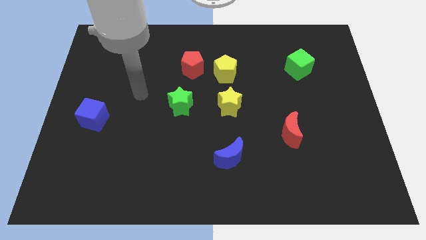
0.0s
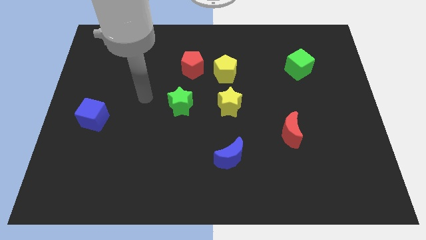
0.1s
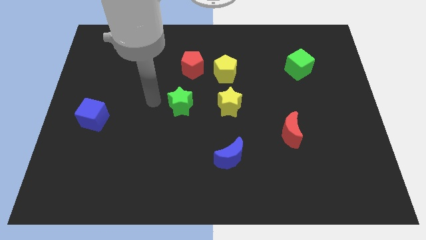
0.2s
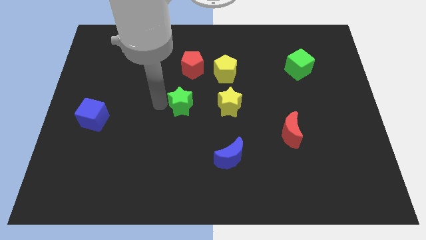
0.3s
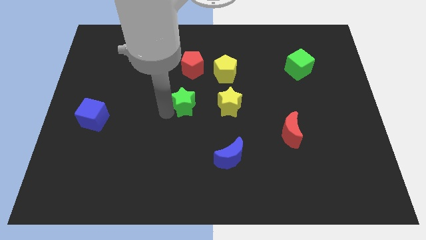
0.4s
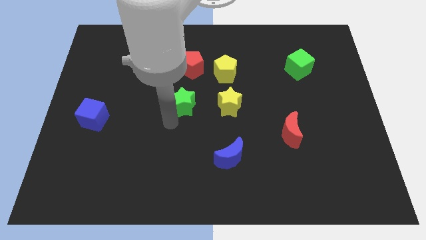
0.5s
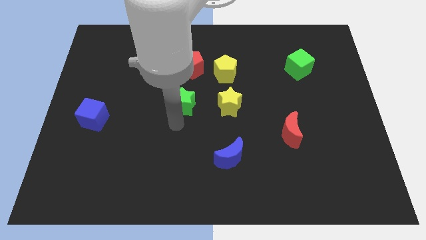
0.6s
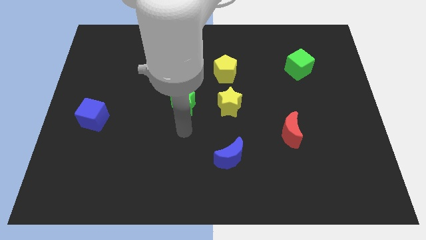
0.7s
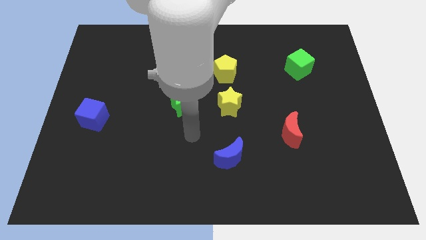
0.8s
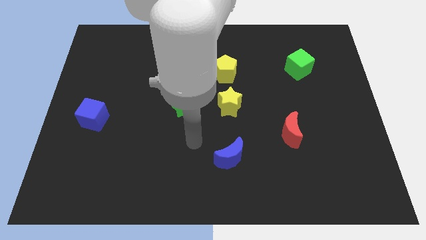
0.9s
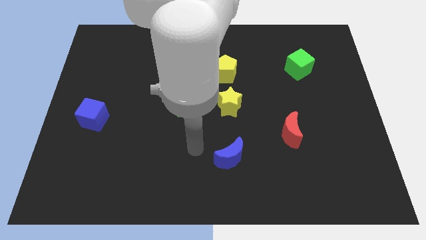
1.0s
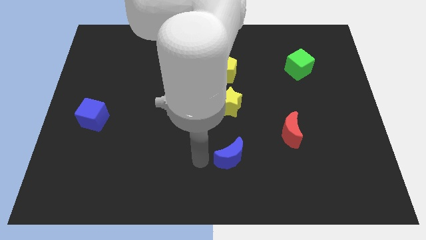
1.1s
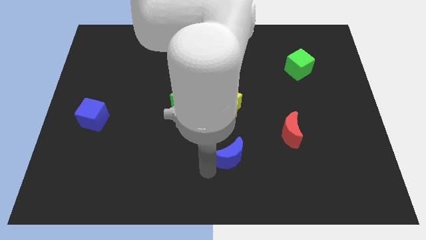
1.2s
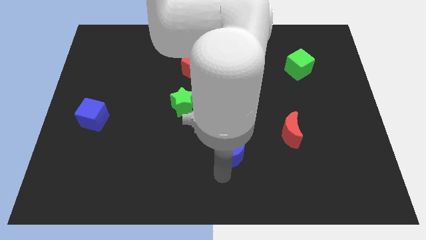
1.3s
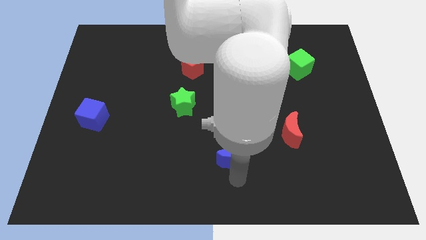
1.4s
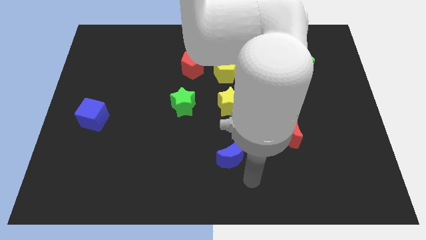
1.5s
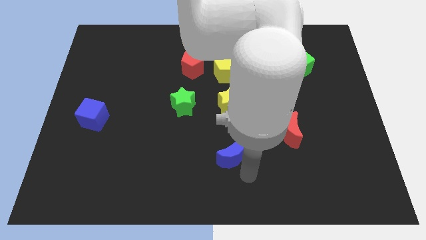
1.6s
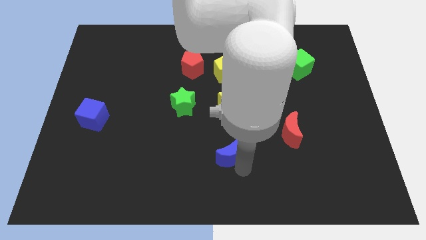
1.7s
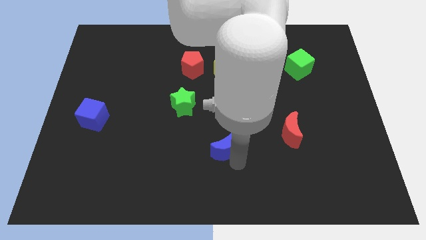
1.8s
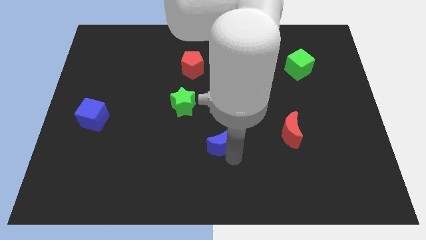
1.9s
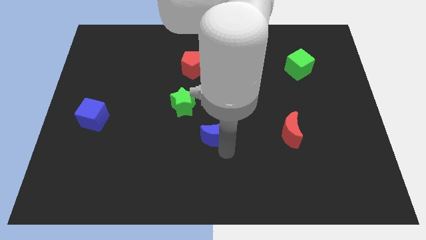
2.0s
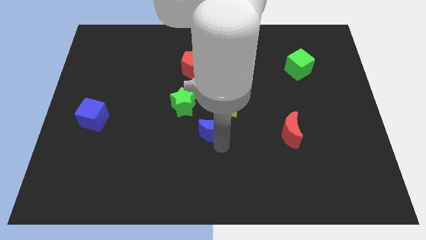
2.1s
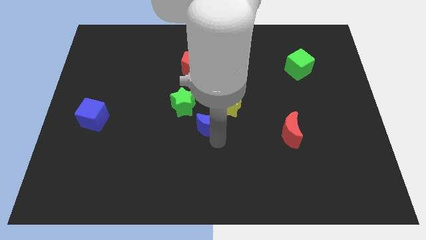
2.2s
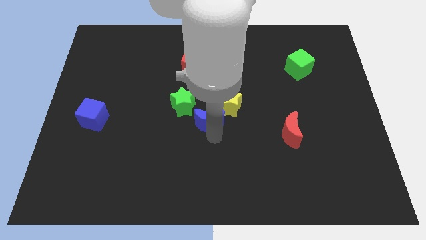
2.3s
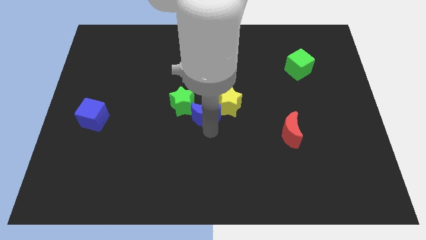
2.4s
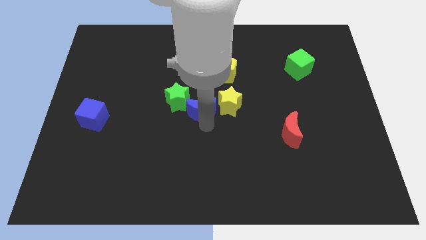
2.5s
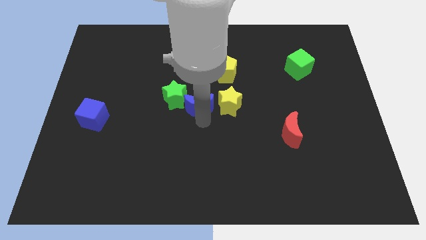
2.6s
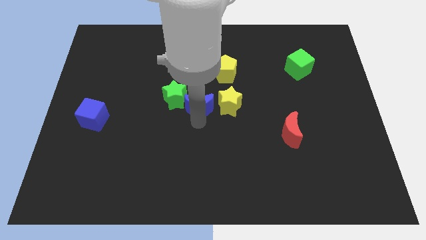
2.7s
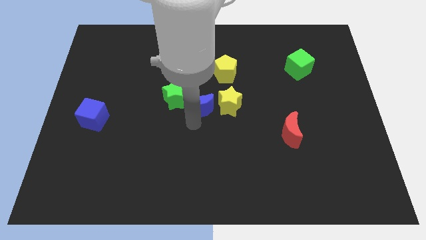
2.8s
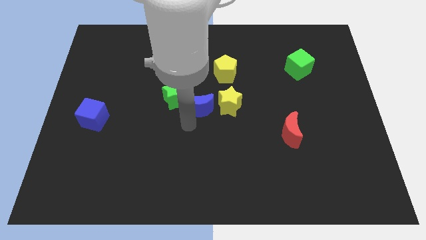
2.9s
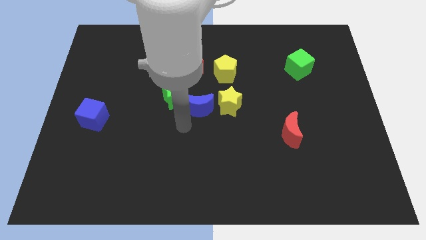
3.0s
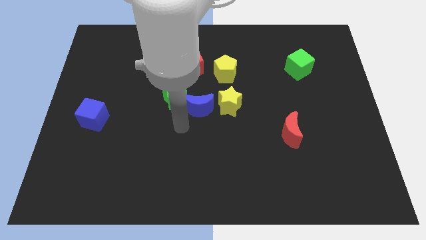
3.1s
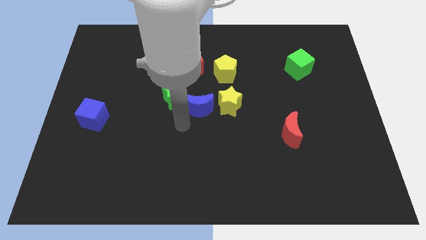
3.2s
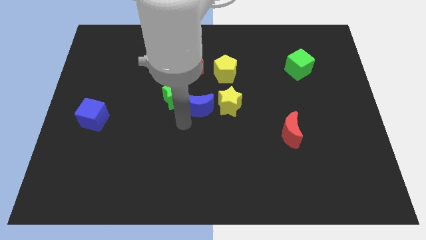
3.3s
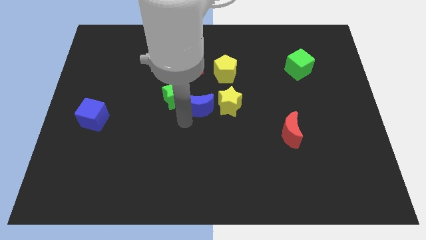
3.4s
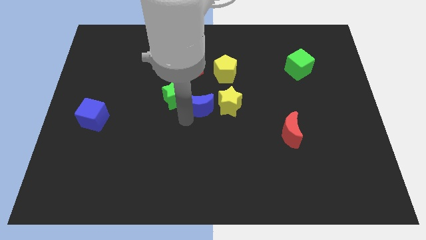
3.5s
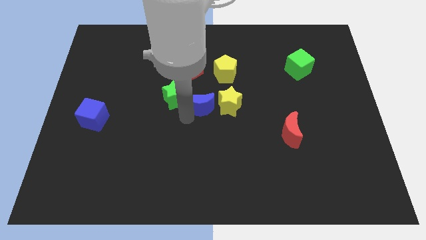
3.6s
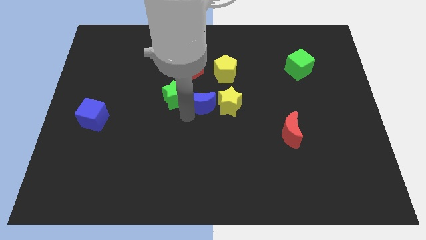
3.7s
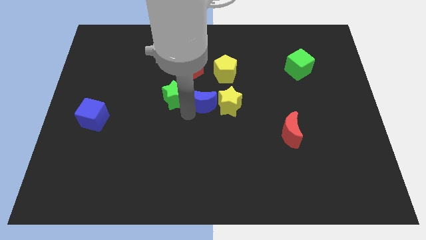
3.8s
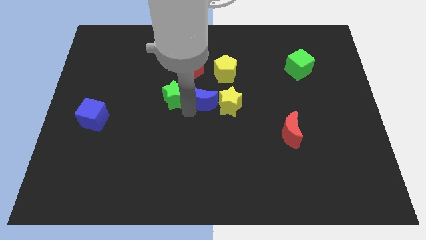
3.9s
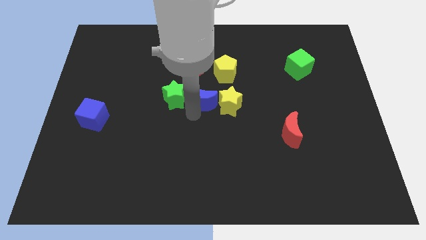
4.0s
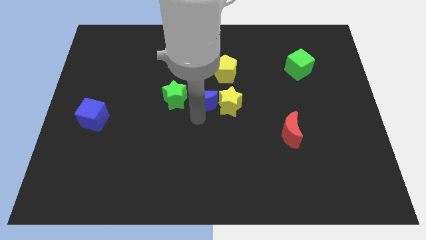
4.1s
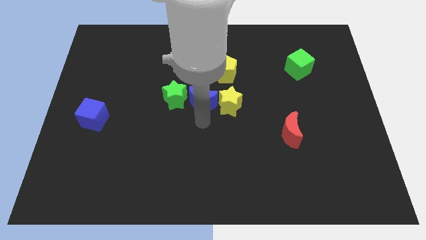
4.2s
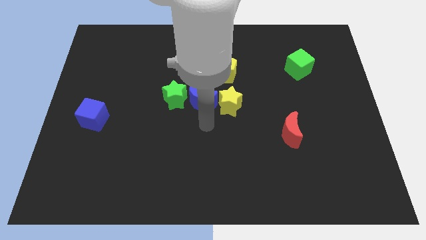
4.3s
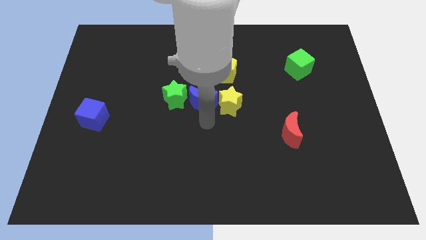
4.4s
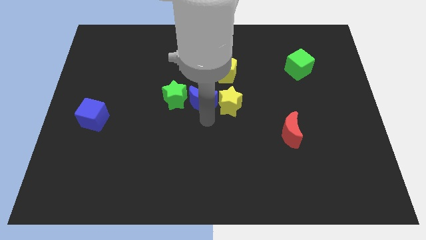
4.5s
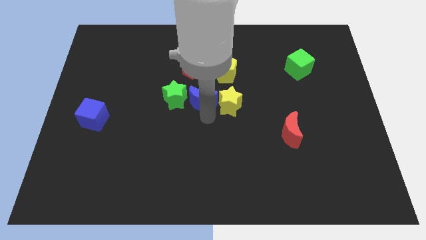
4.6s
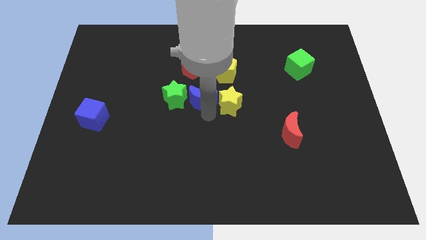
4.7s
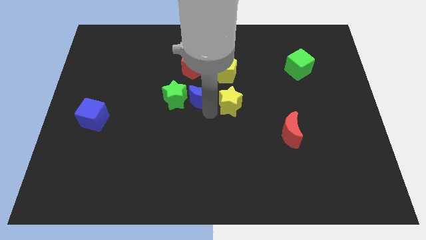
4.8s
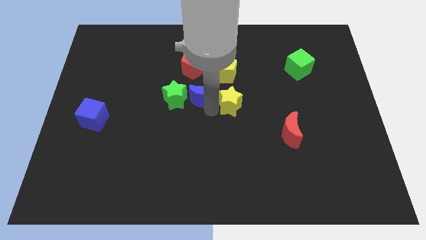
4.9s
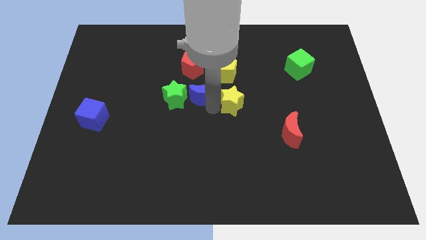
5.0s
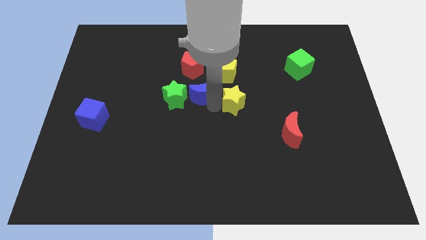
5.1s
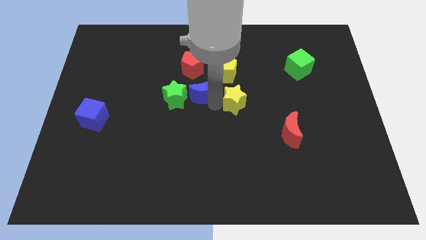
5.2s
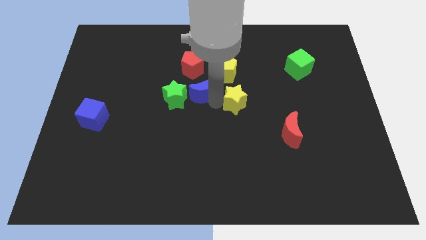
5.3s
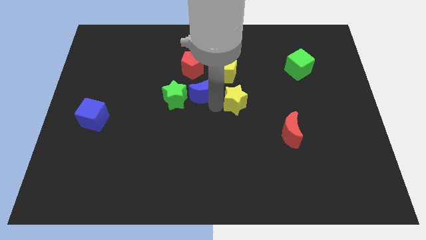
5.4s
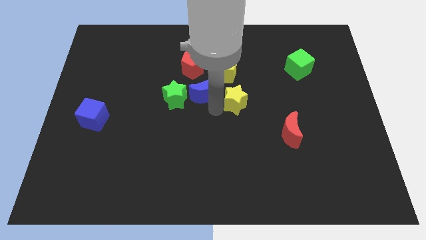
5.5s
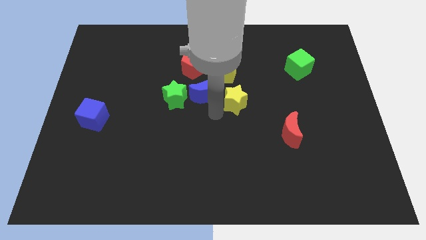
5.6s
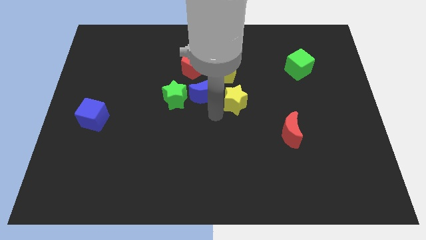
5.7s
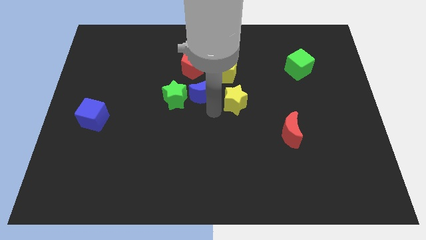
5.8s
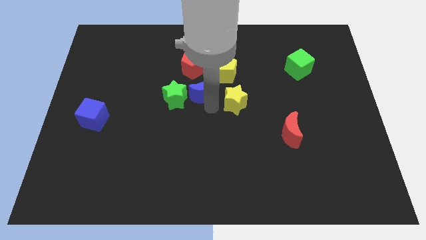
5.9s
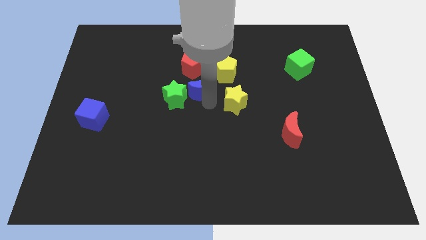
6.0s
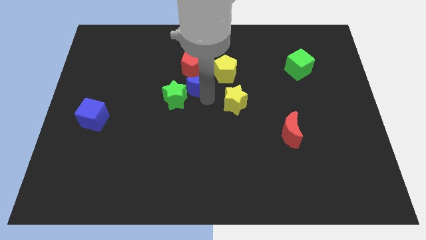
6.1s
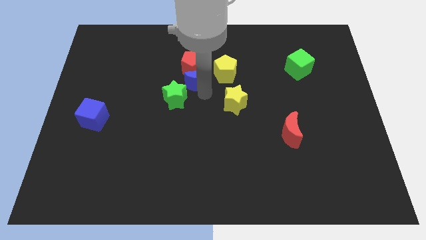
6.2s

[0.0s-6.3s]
slide the blue moon to the red pentagon

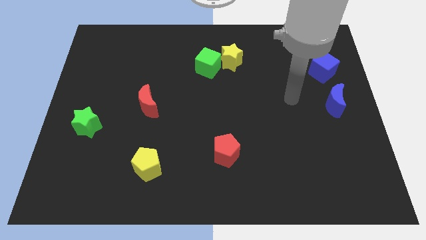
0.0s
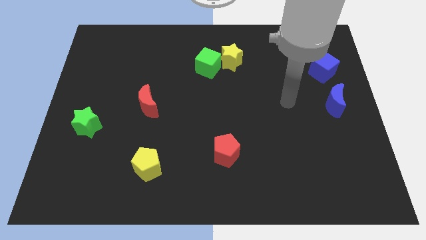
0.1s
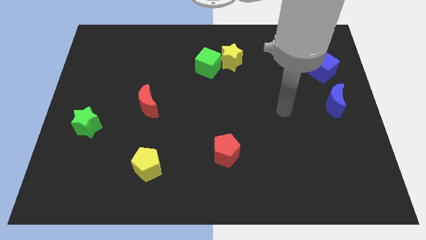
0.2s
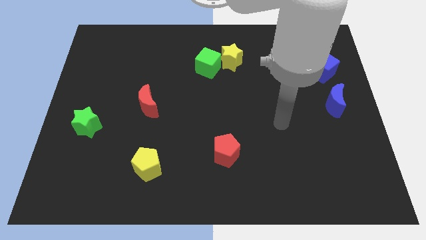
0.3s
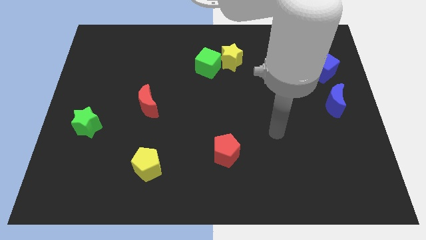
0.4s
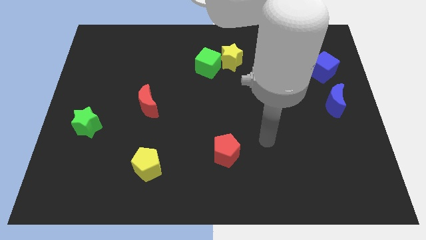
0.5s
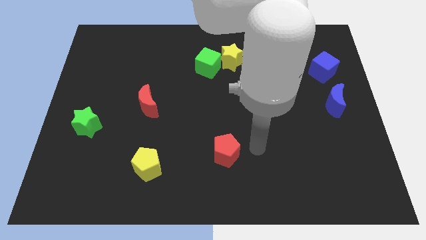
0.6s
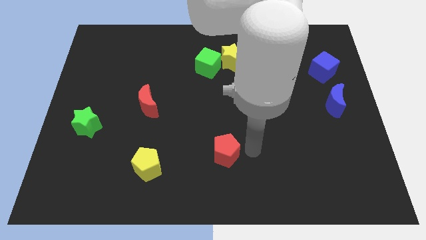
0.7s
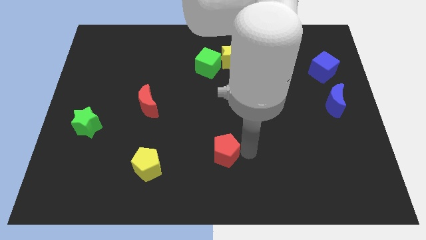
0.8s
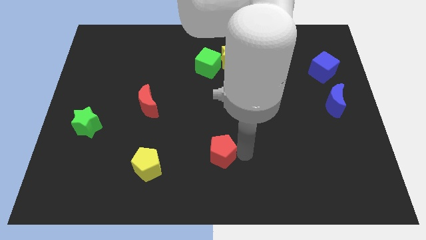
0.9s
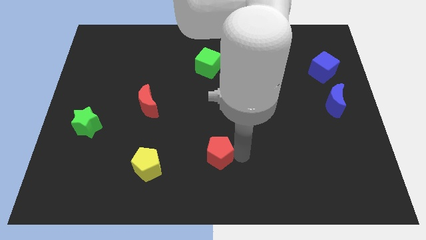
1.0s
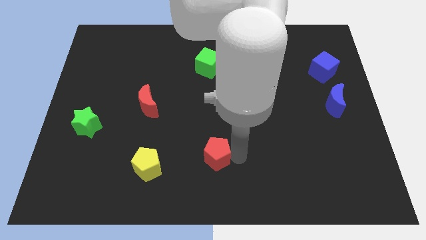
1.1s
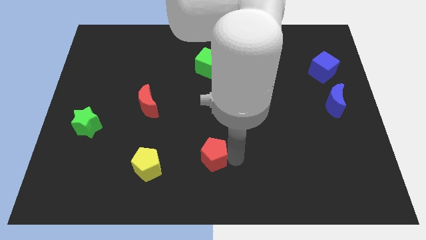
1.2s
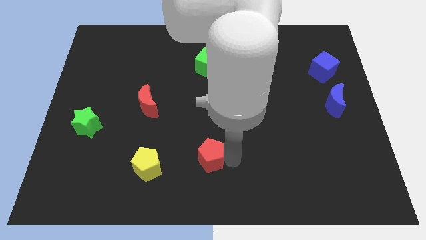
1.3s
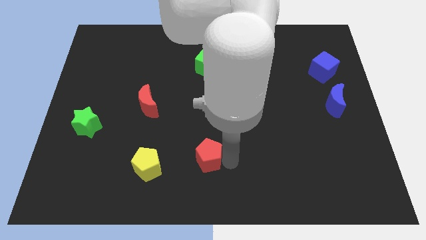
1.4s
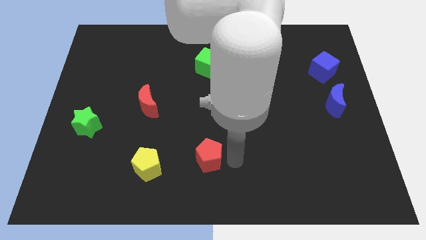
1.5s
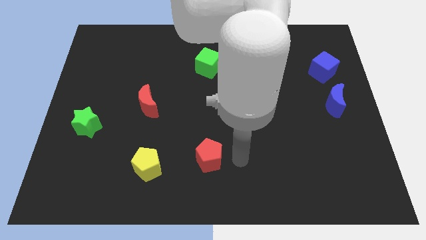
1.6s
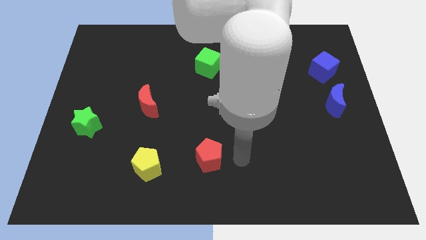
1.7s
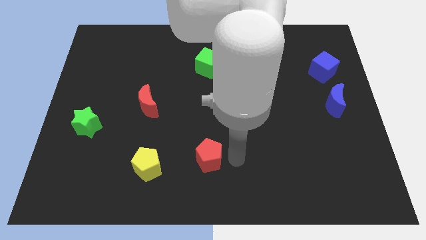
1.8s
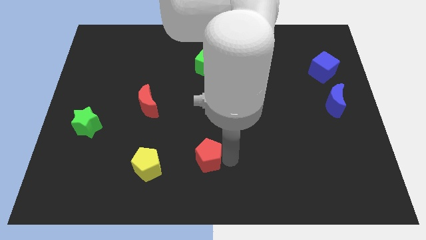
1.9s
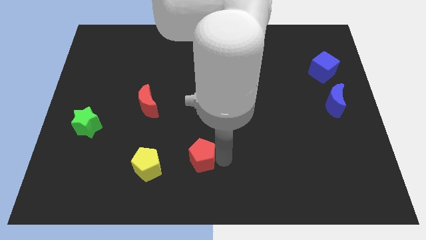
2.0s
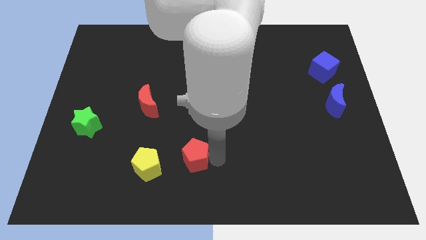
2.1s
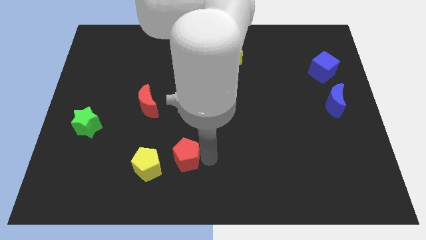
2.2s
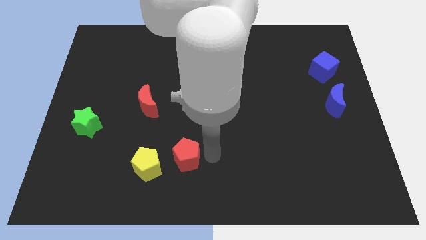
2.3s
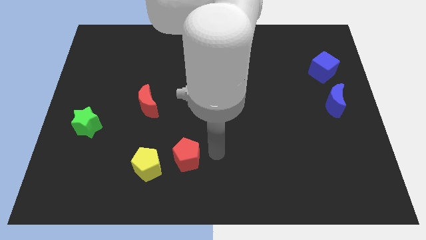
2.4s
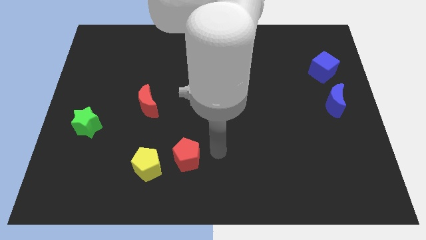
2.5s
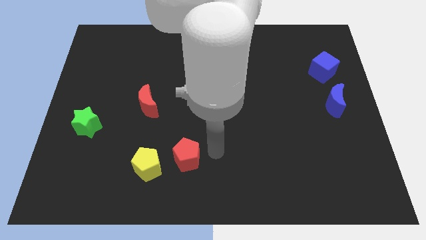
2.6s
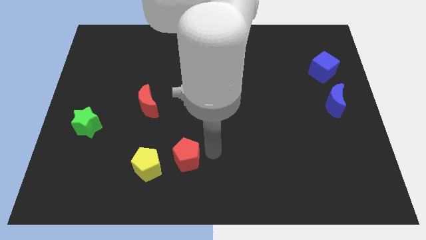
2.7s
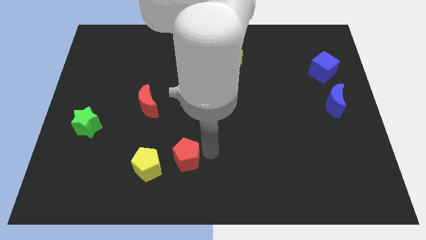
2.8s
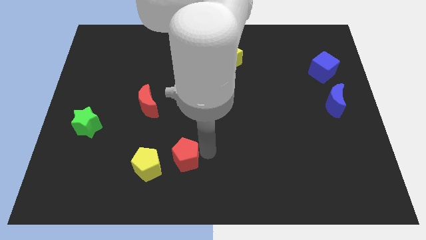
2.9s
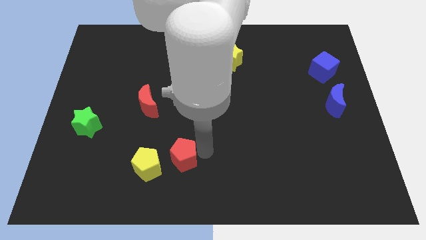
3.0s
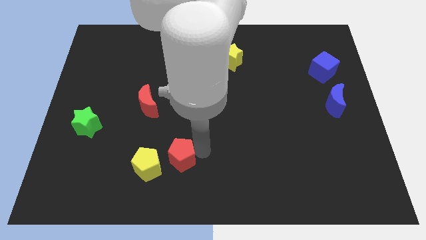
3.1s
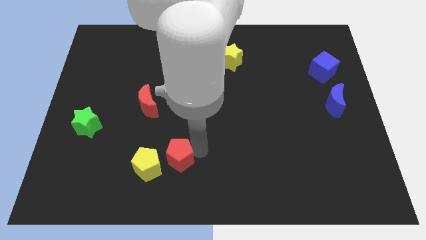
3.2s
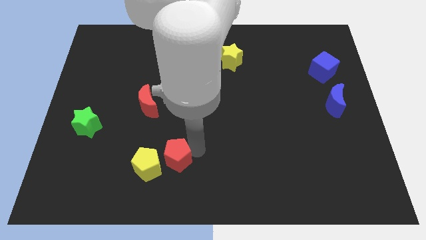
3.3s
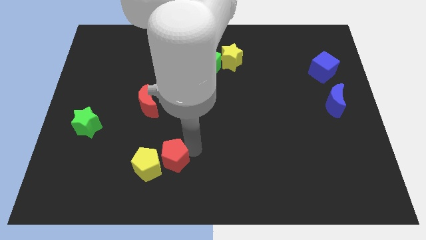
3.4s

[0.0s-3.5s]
slide the red pentagon close to the yellow pentagon
